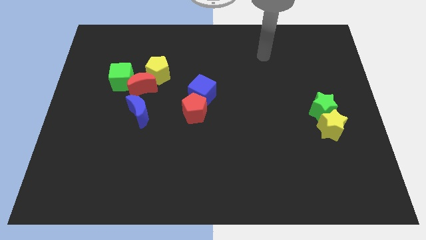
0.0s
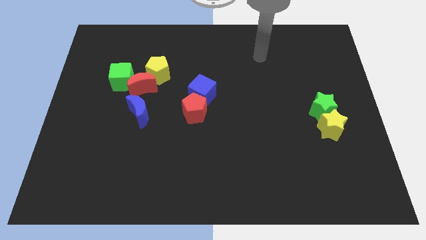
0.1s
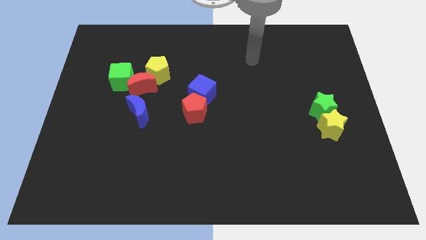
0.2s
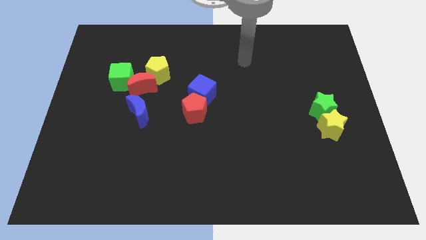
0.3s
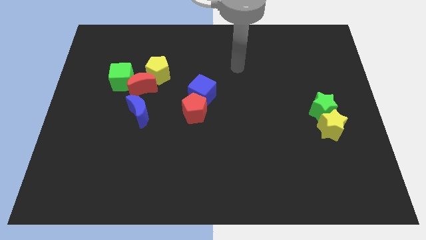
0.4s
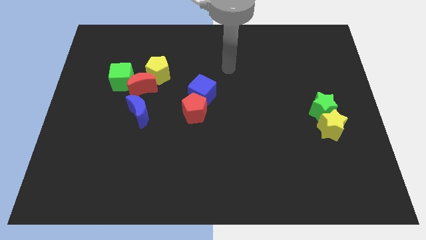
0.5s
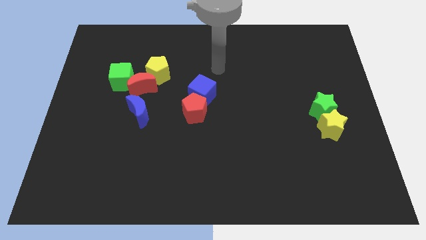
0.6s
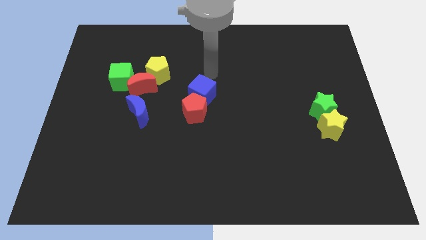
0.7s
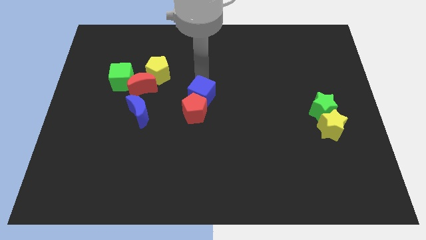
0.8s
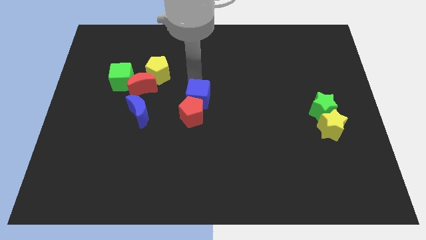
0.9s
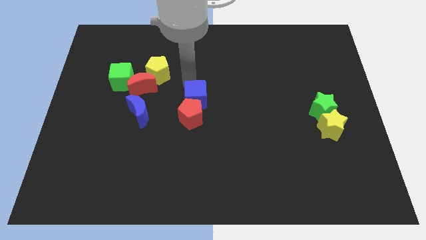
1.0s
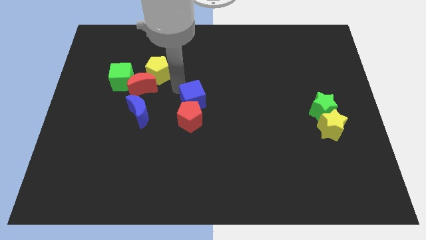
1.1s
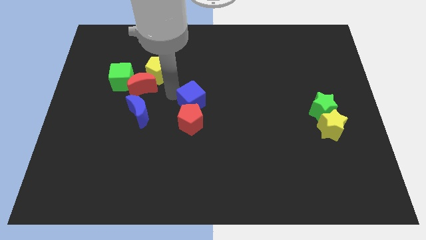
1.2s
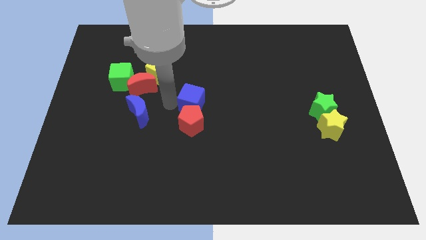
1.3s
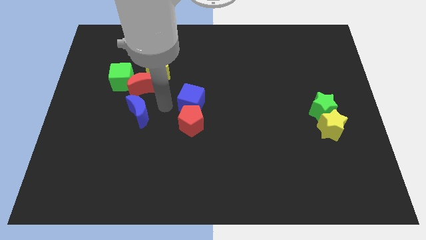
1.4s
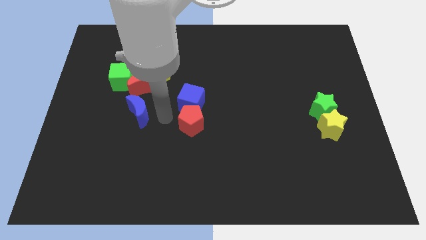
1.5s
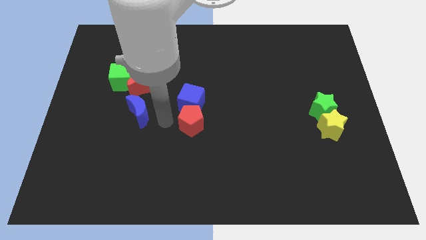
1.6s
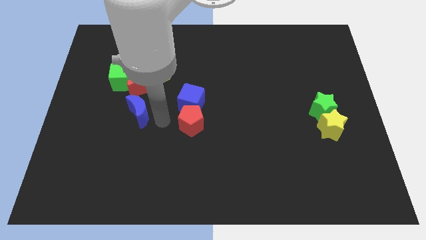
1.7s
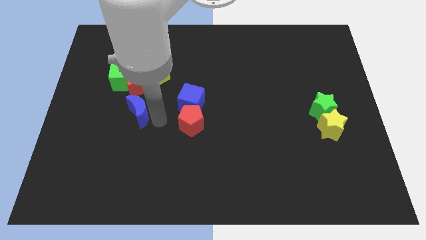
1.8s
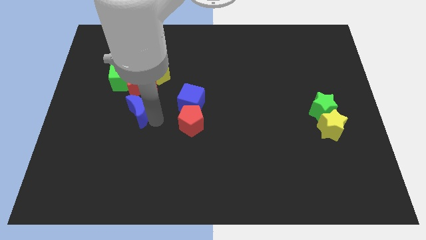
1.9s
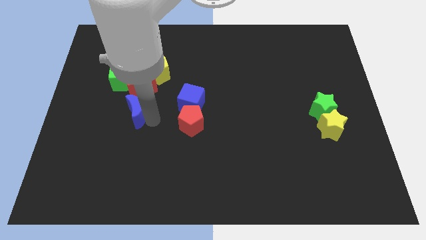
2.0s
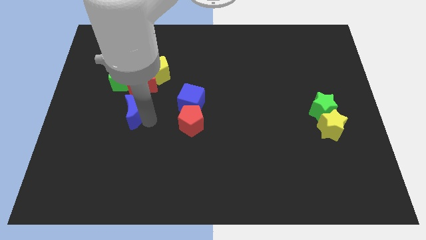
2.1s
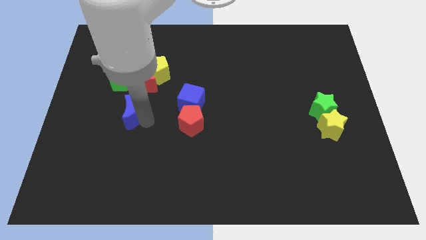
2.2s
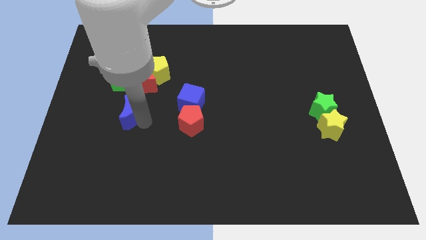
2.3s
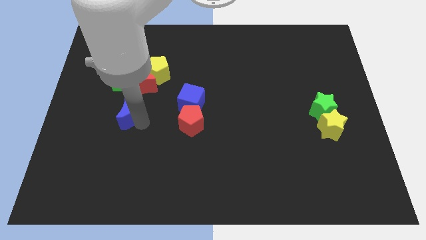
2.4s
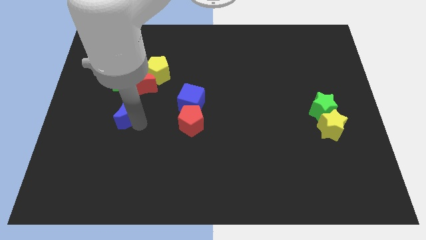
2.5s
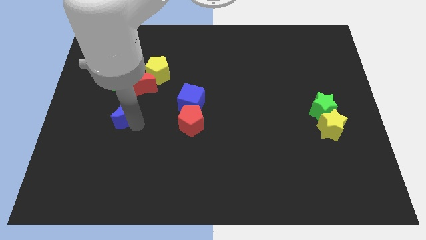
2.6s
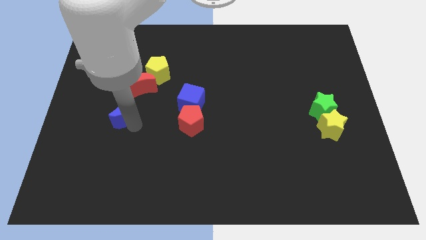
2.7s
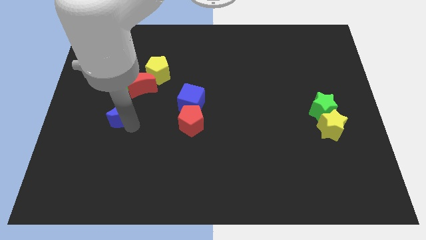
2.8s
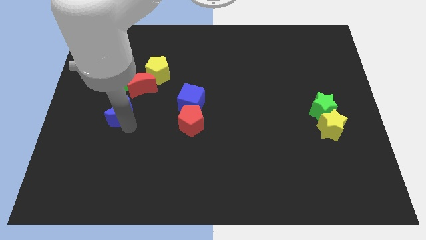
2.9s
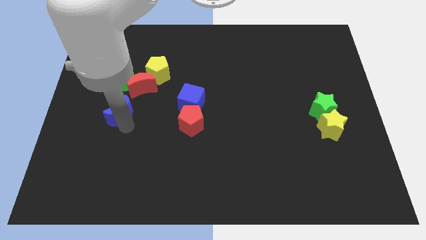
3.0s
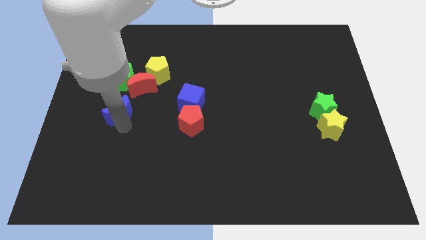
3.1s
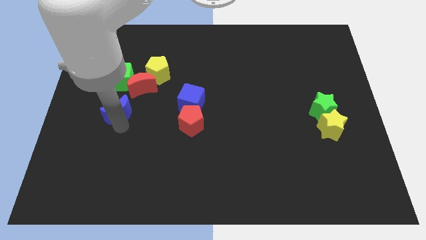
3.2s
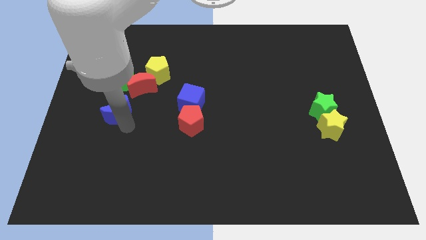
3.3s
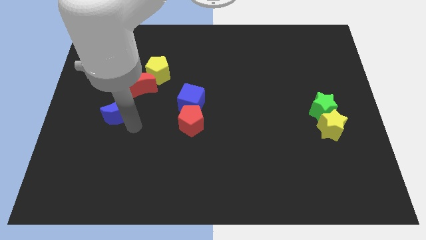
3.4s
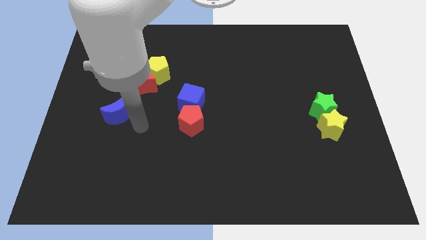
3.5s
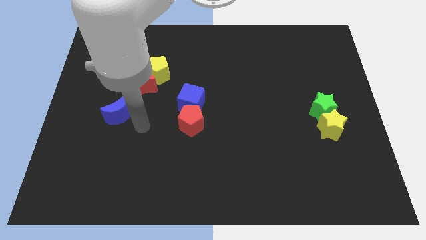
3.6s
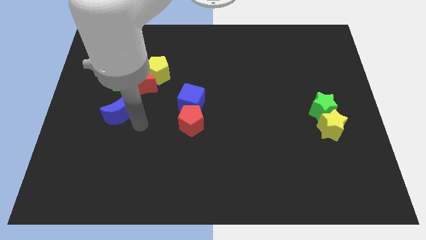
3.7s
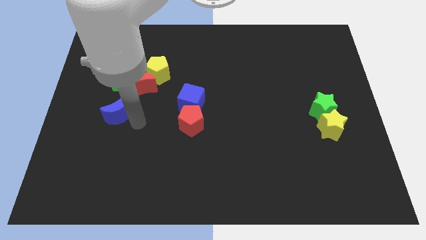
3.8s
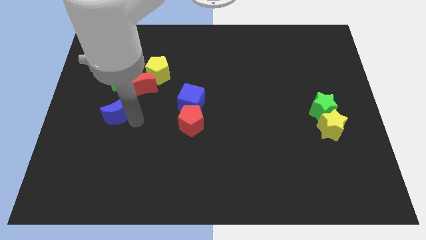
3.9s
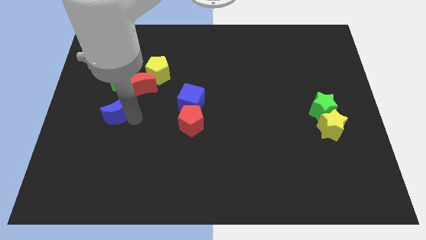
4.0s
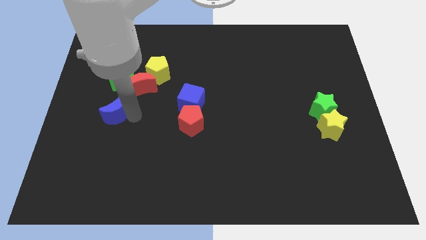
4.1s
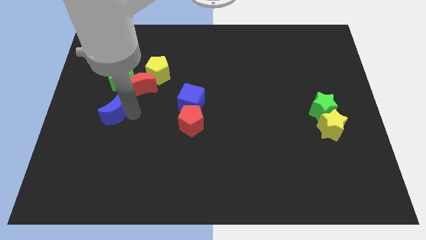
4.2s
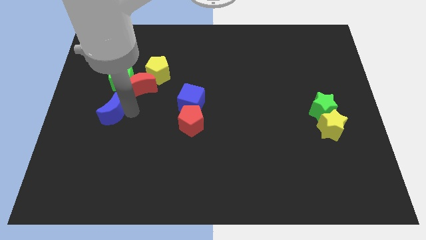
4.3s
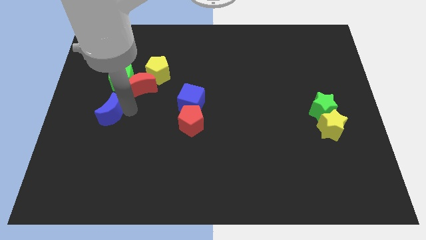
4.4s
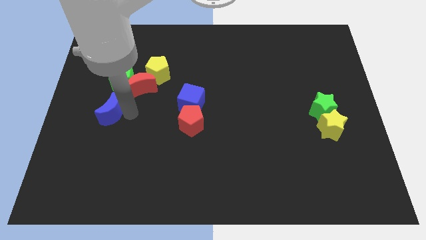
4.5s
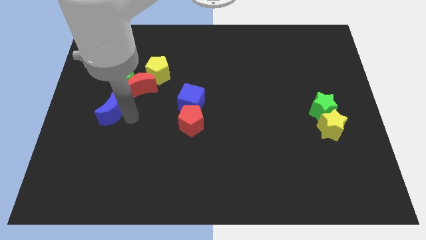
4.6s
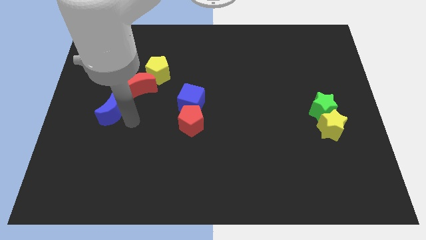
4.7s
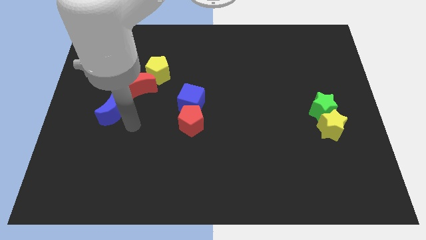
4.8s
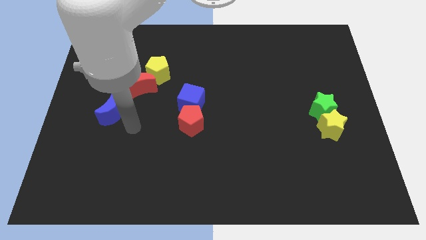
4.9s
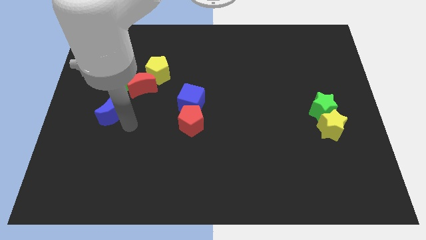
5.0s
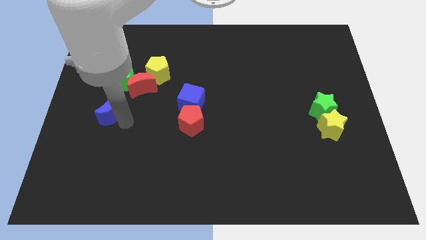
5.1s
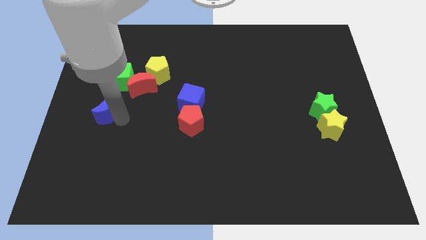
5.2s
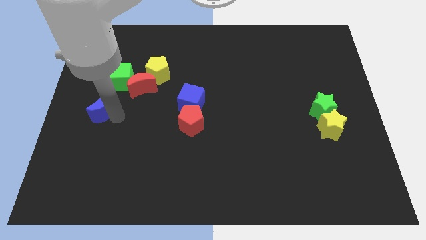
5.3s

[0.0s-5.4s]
put the blue moon to the left side of the board

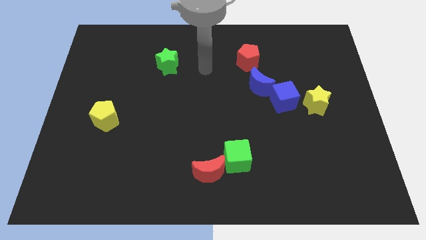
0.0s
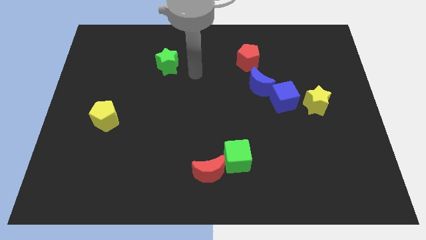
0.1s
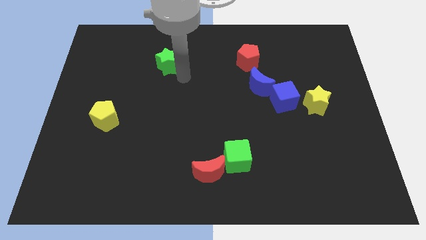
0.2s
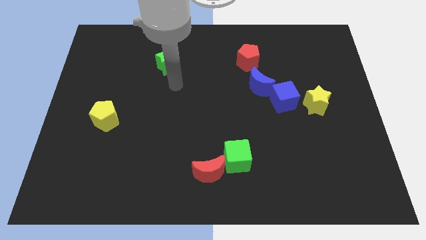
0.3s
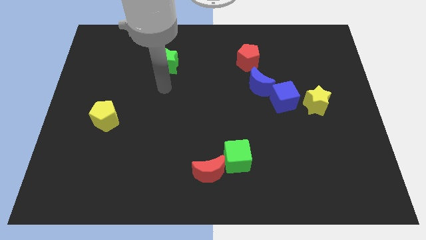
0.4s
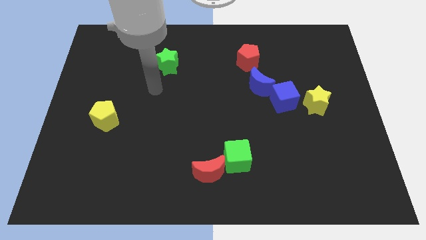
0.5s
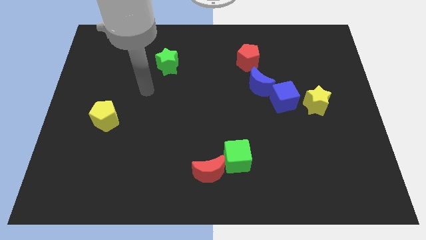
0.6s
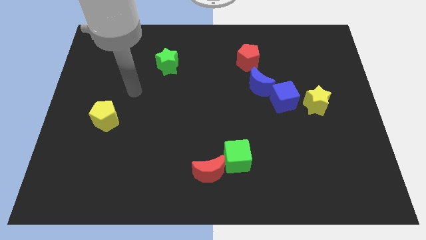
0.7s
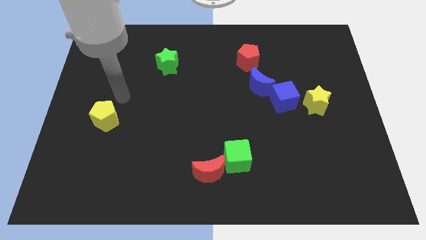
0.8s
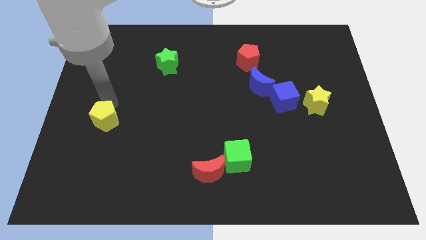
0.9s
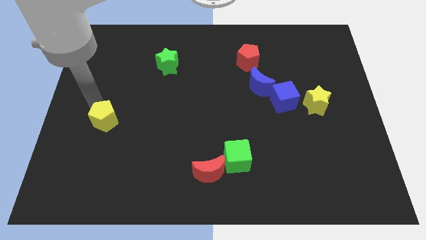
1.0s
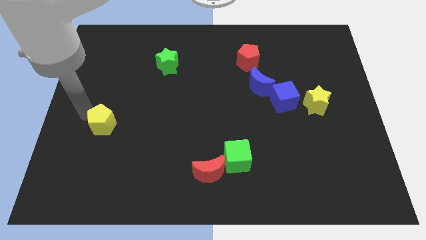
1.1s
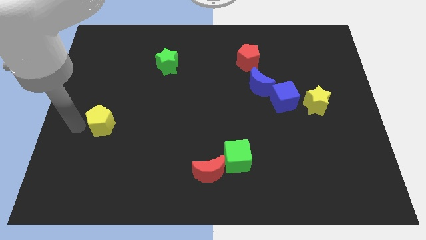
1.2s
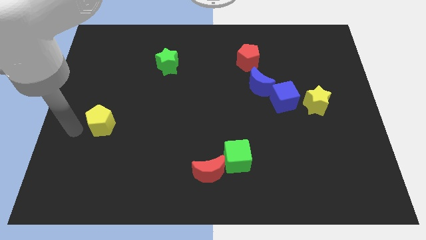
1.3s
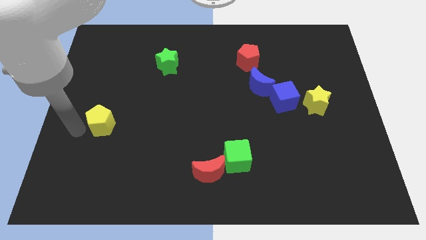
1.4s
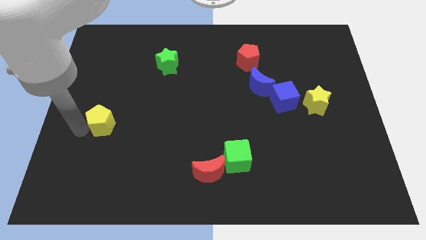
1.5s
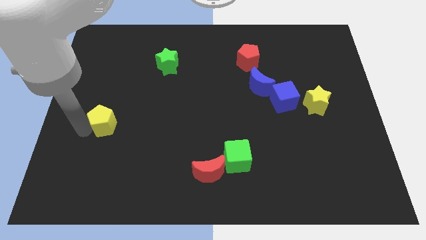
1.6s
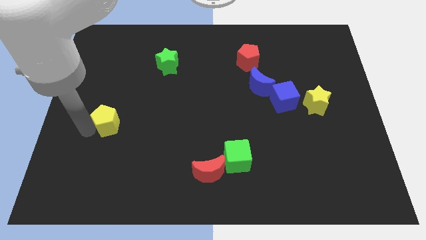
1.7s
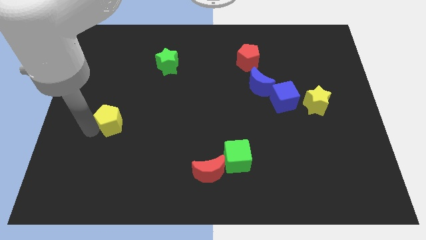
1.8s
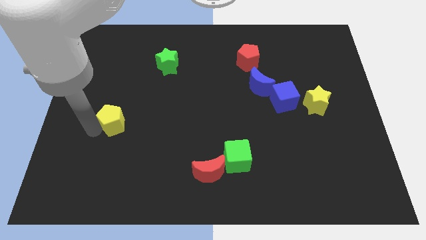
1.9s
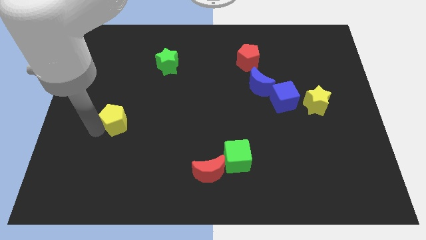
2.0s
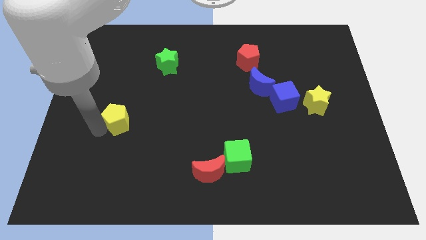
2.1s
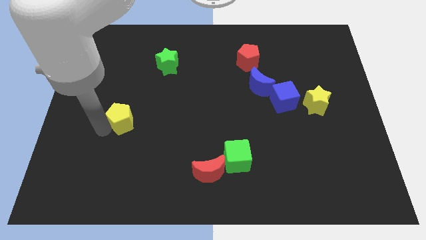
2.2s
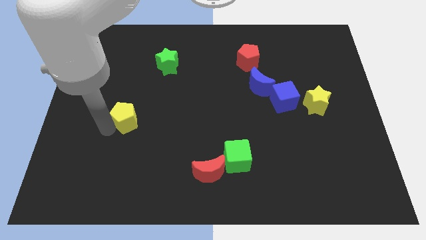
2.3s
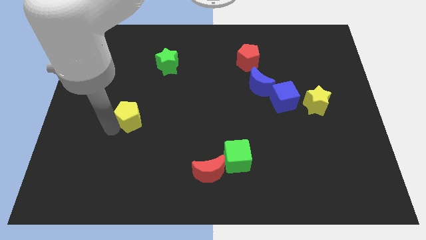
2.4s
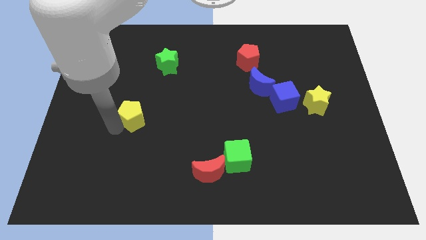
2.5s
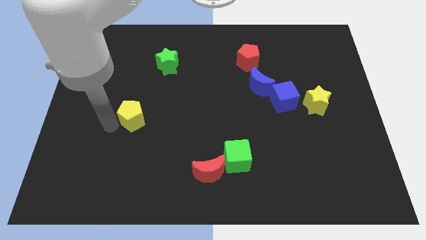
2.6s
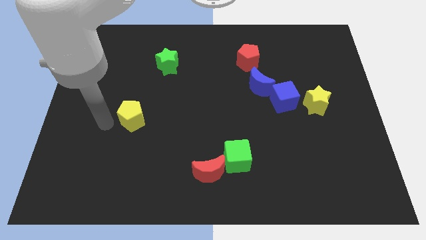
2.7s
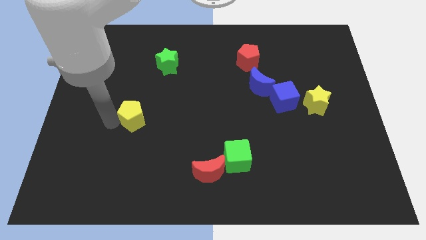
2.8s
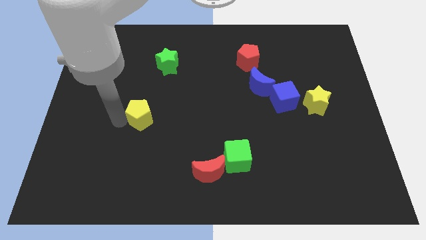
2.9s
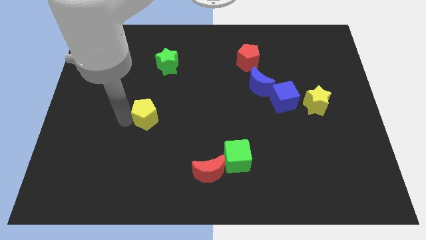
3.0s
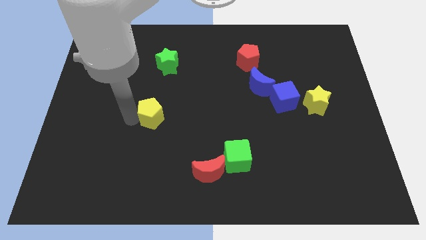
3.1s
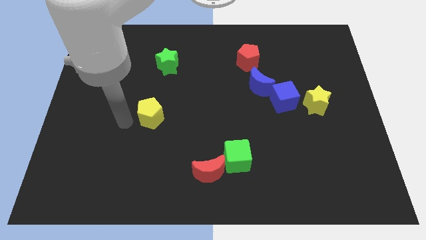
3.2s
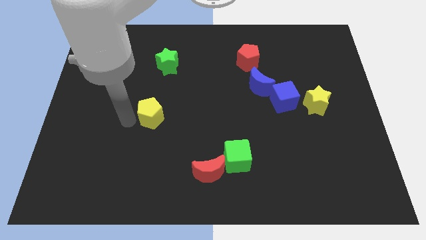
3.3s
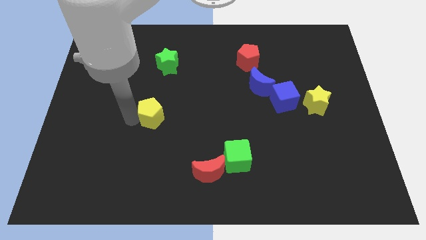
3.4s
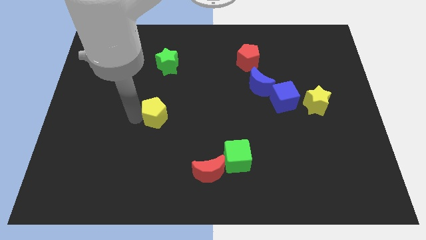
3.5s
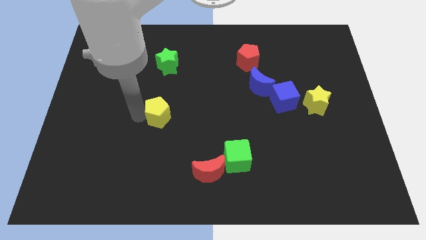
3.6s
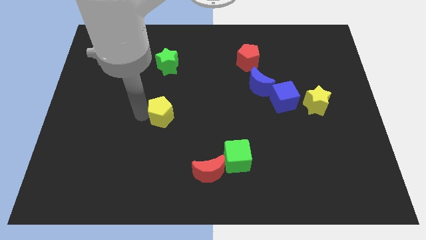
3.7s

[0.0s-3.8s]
push the yellow pentagon to the center
